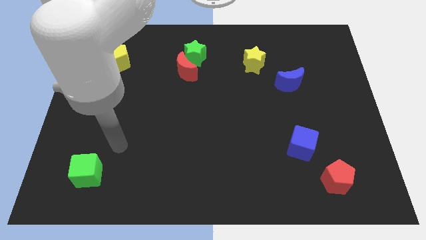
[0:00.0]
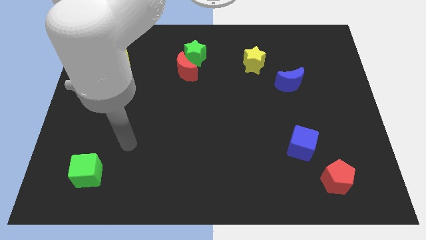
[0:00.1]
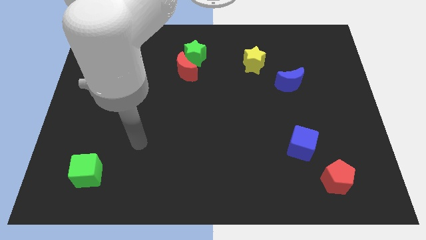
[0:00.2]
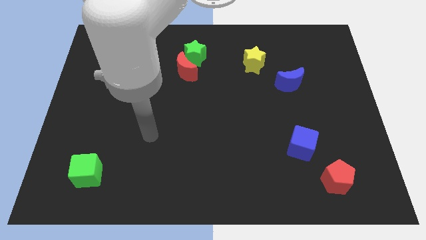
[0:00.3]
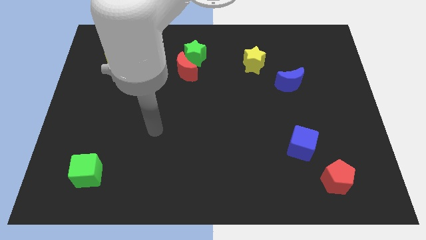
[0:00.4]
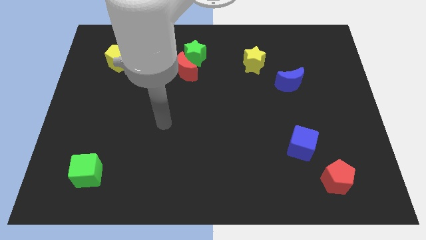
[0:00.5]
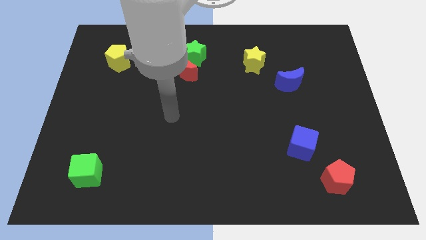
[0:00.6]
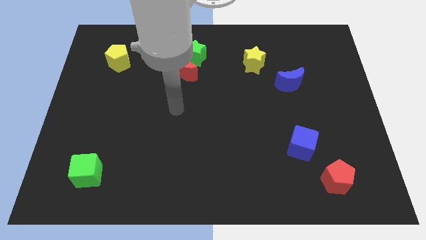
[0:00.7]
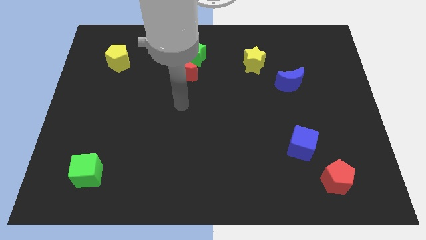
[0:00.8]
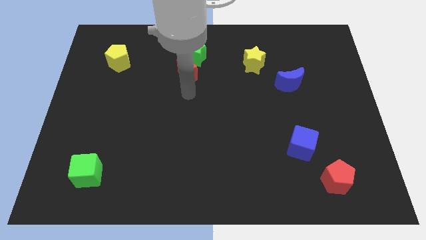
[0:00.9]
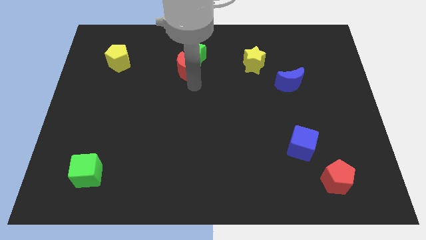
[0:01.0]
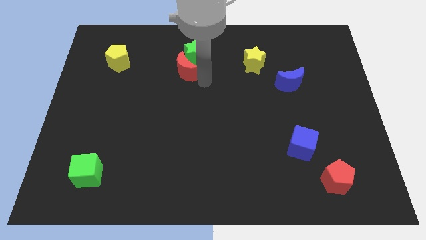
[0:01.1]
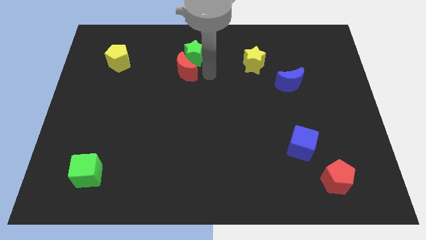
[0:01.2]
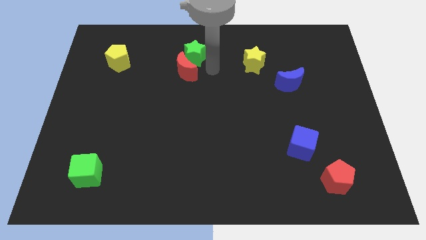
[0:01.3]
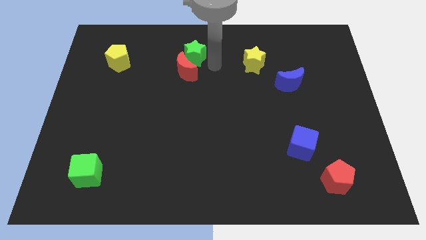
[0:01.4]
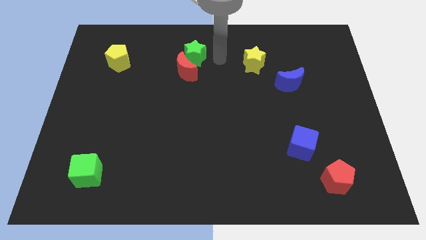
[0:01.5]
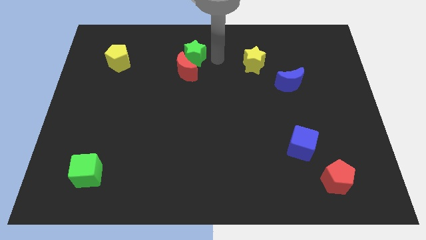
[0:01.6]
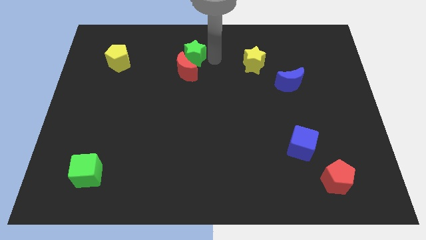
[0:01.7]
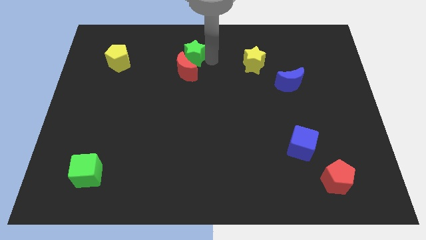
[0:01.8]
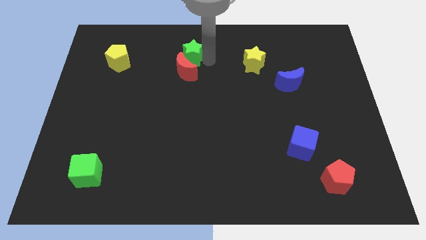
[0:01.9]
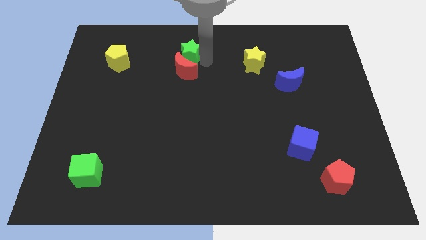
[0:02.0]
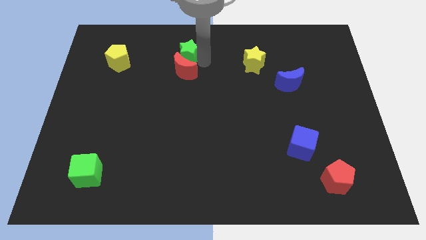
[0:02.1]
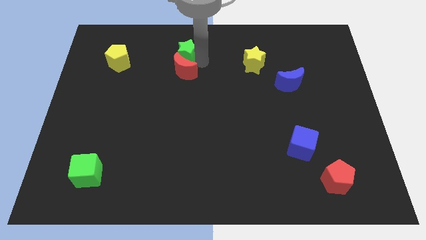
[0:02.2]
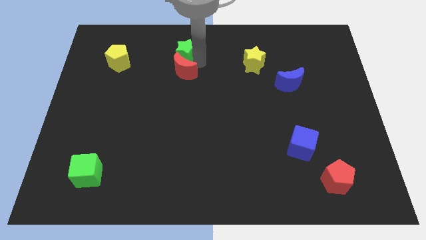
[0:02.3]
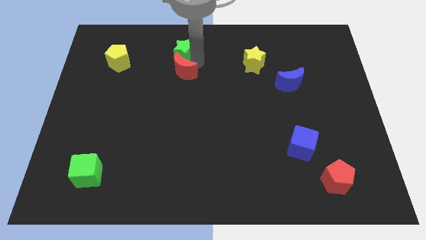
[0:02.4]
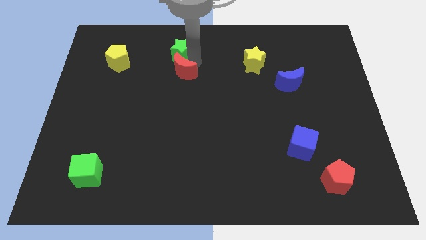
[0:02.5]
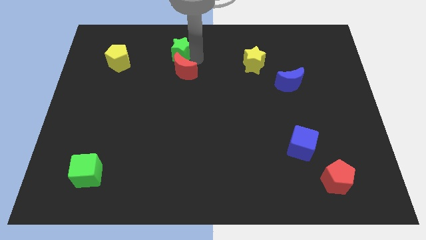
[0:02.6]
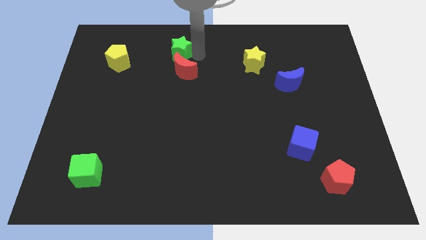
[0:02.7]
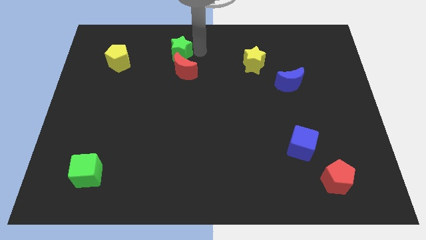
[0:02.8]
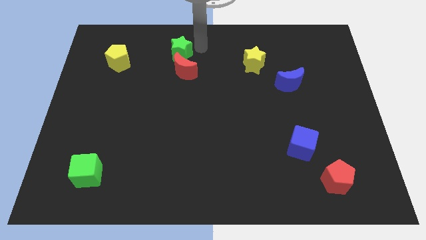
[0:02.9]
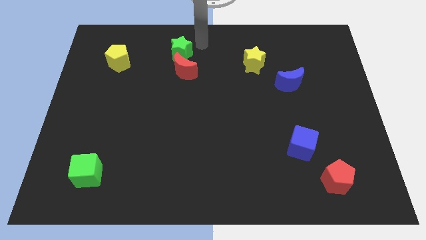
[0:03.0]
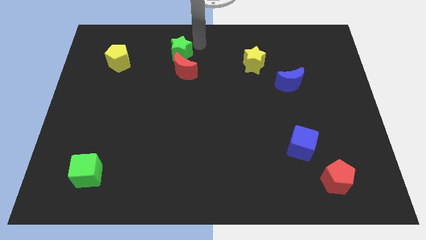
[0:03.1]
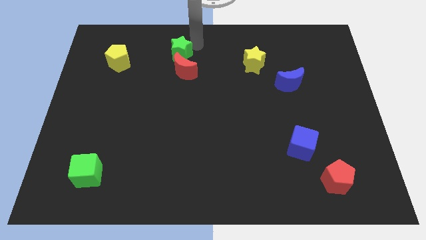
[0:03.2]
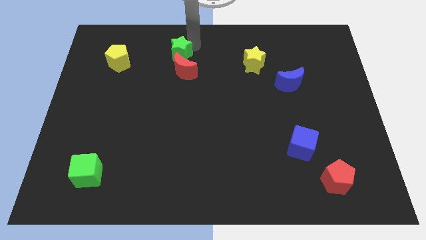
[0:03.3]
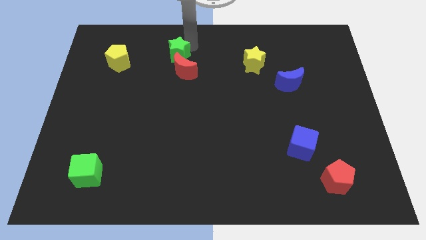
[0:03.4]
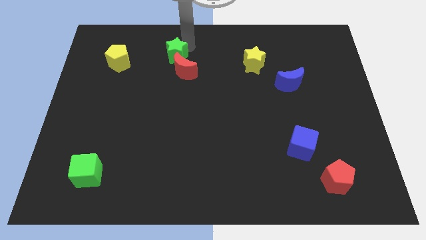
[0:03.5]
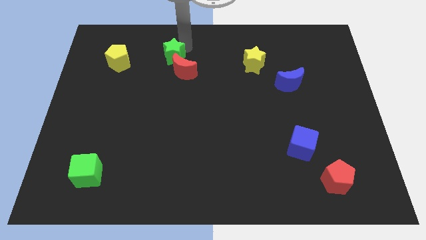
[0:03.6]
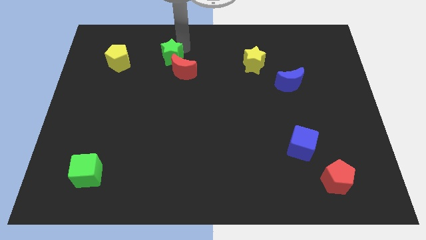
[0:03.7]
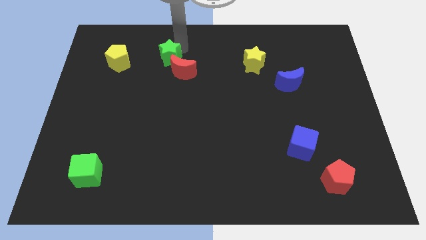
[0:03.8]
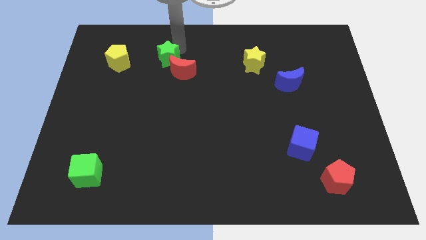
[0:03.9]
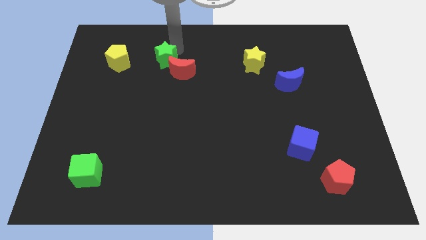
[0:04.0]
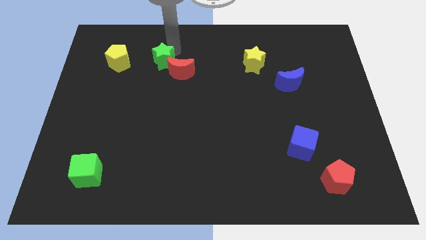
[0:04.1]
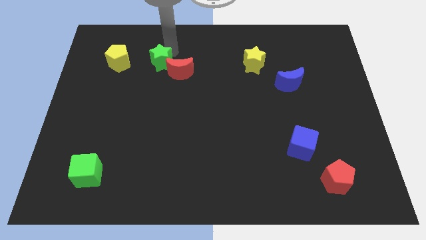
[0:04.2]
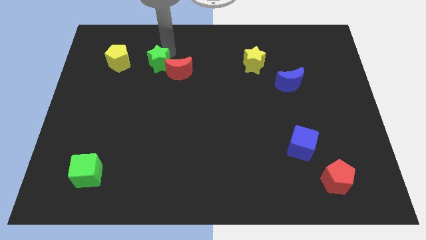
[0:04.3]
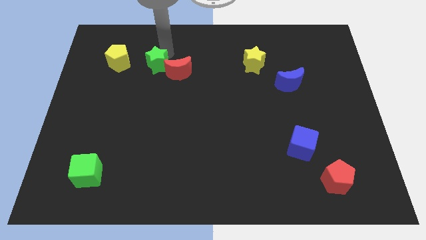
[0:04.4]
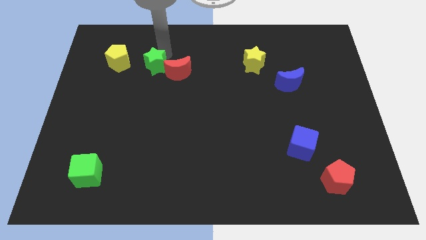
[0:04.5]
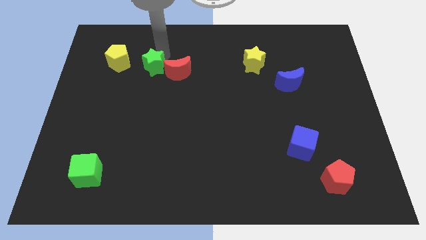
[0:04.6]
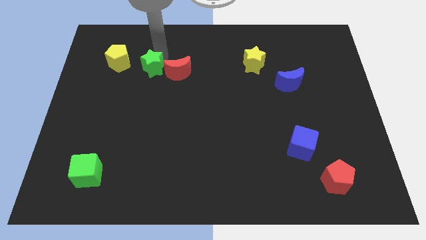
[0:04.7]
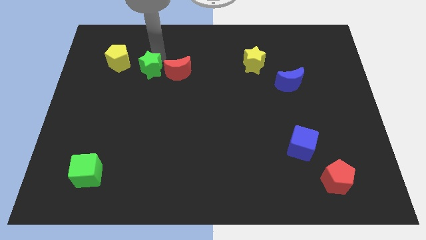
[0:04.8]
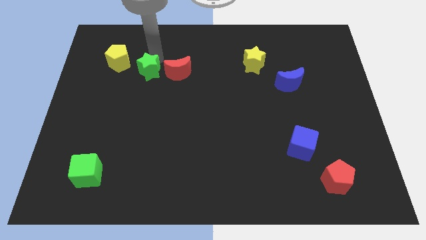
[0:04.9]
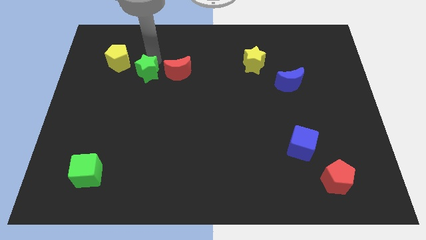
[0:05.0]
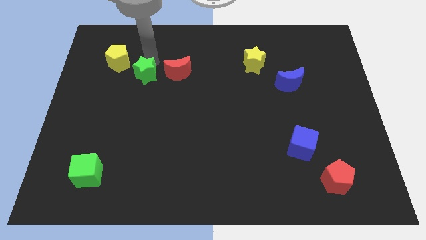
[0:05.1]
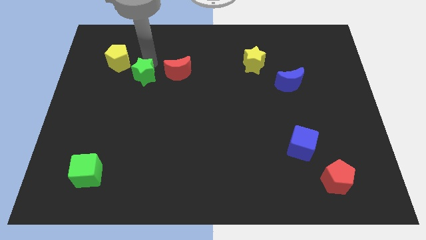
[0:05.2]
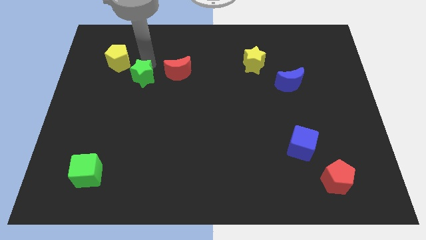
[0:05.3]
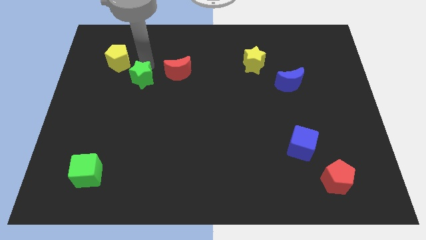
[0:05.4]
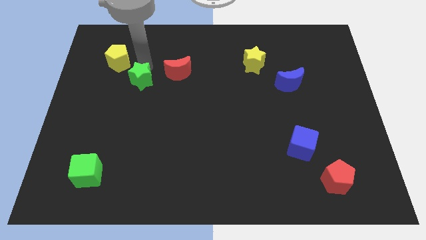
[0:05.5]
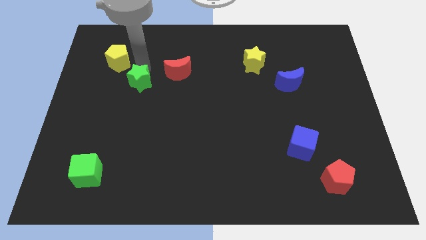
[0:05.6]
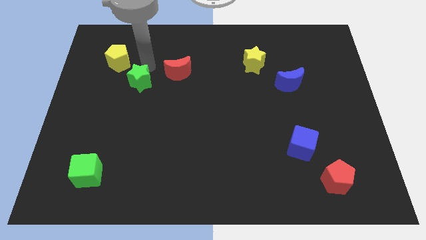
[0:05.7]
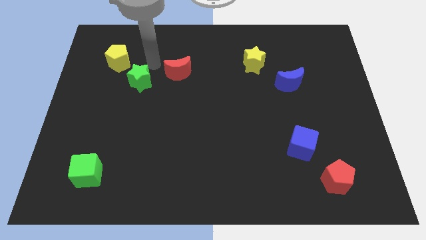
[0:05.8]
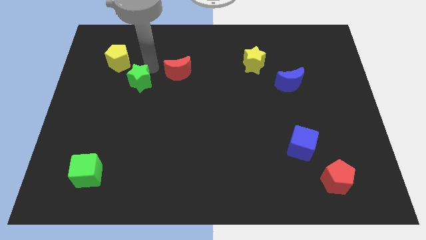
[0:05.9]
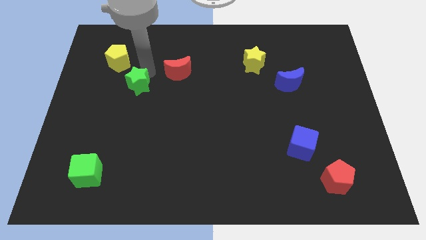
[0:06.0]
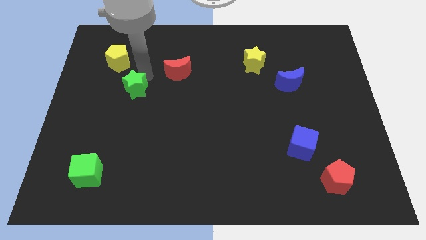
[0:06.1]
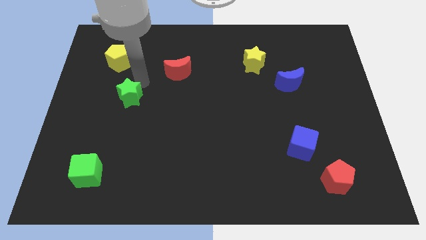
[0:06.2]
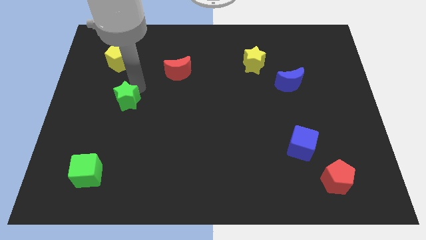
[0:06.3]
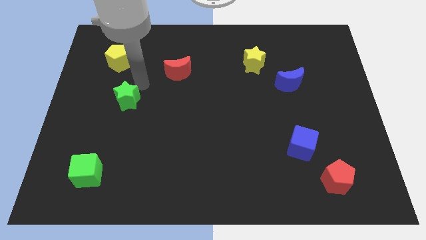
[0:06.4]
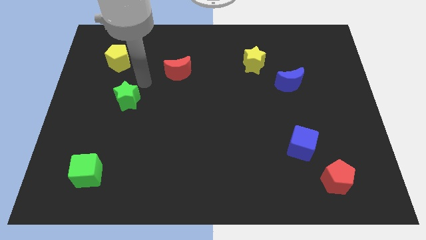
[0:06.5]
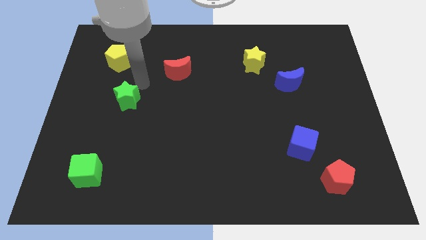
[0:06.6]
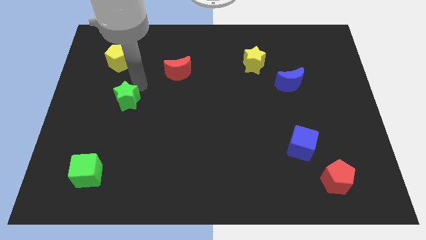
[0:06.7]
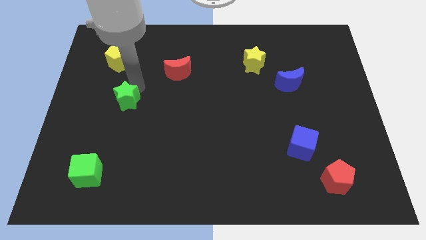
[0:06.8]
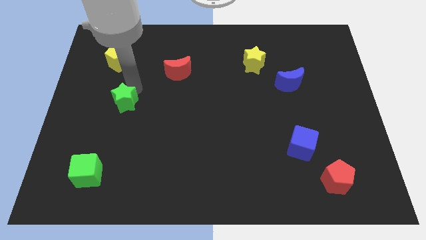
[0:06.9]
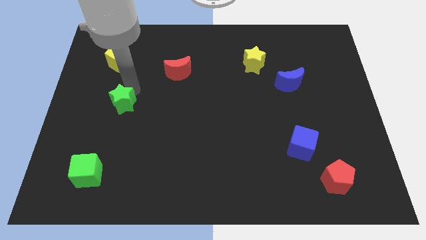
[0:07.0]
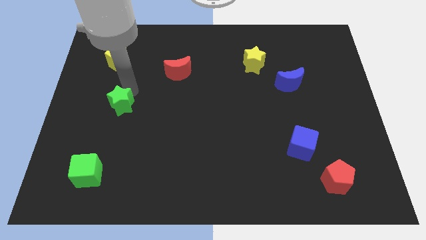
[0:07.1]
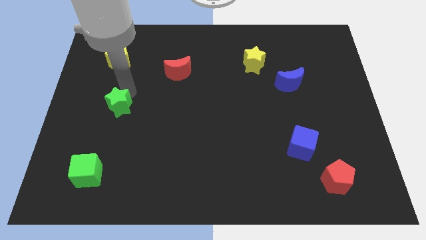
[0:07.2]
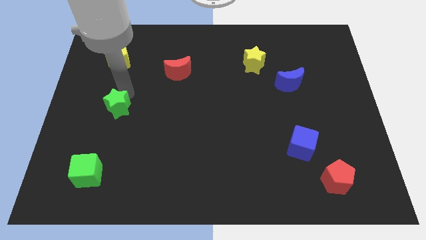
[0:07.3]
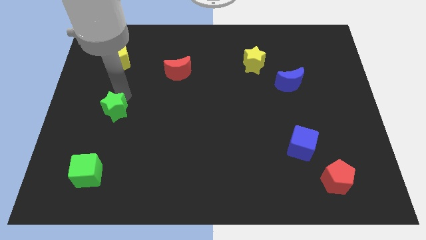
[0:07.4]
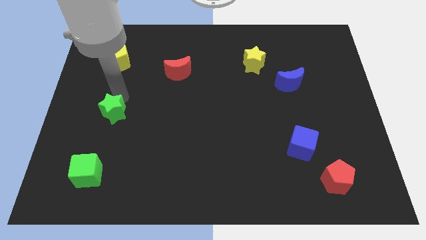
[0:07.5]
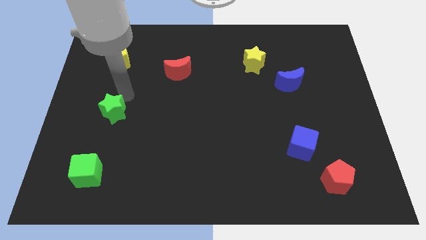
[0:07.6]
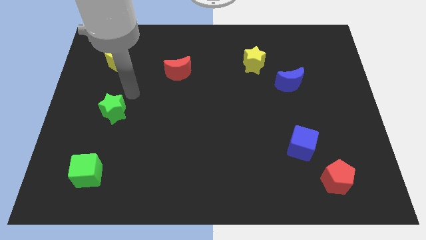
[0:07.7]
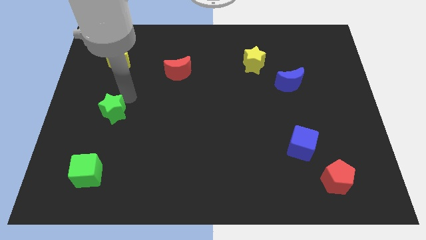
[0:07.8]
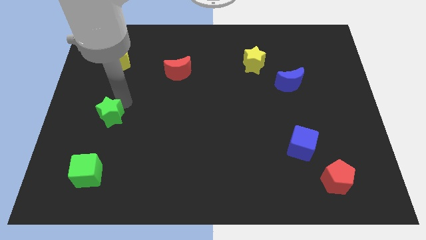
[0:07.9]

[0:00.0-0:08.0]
move the green star to the top of the green cube
